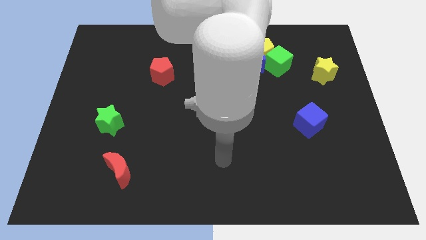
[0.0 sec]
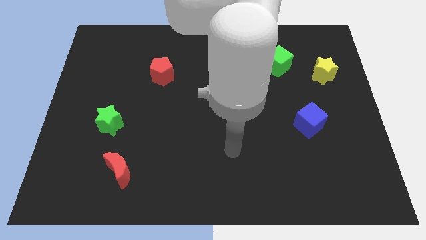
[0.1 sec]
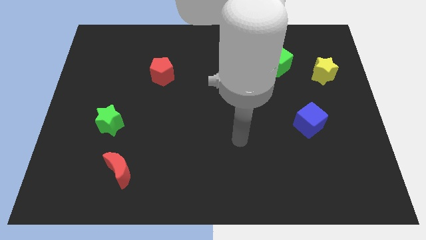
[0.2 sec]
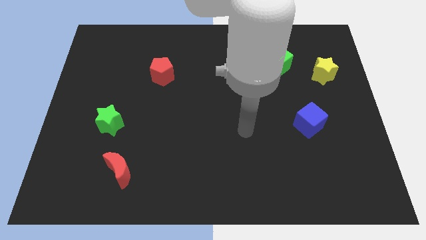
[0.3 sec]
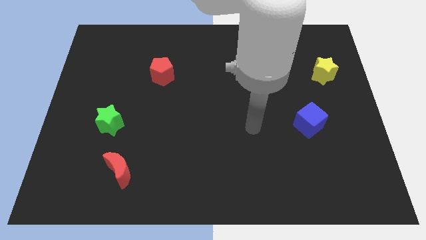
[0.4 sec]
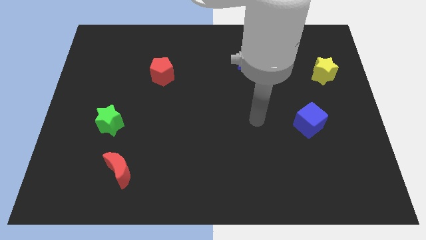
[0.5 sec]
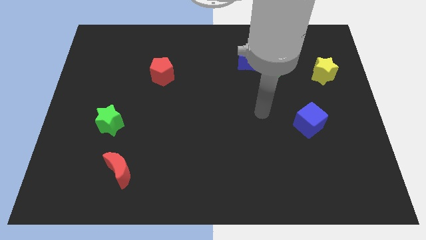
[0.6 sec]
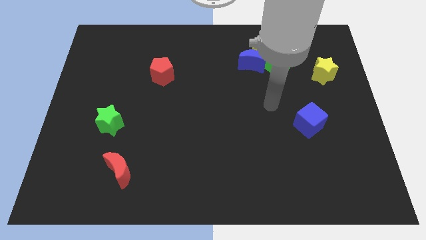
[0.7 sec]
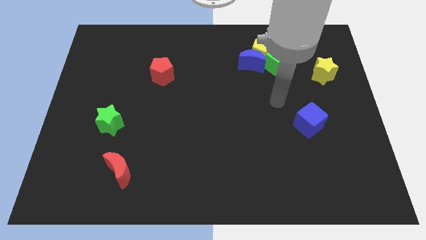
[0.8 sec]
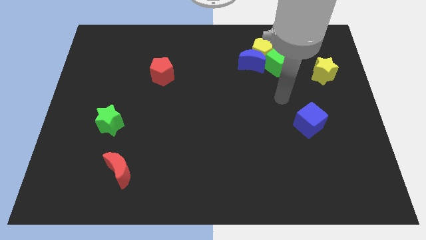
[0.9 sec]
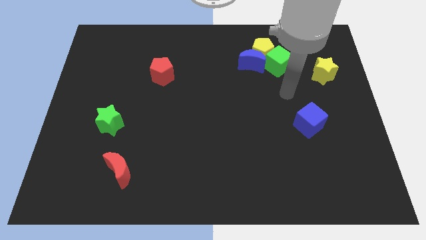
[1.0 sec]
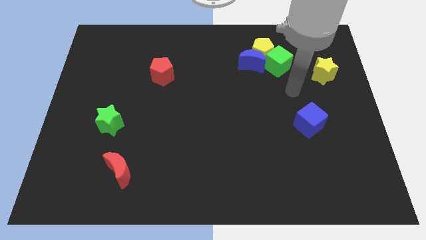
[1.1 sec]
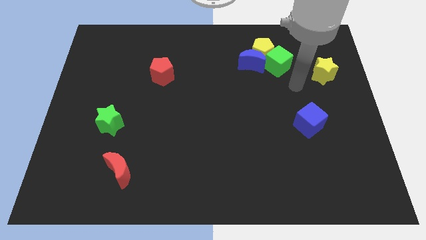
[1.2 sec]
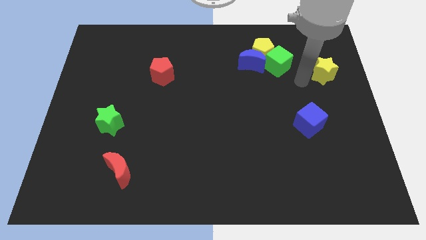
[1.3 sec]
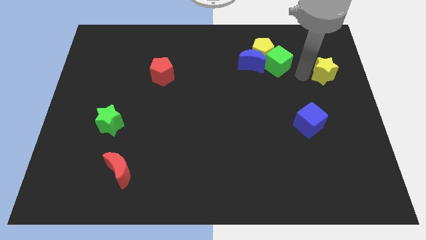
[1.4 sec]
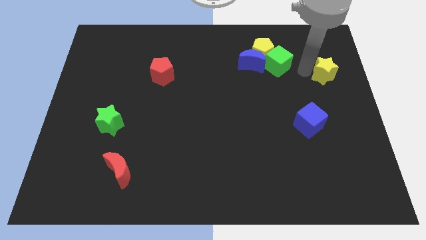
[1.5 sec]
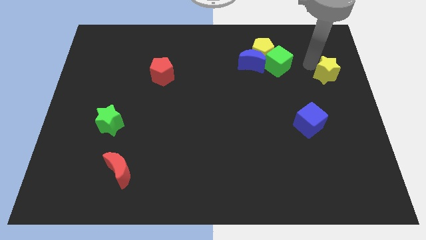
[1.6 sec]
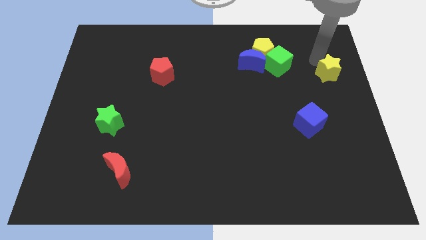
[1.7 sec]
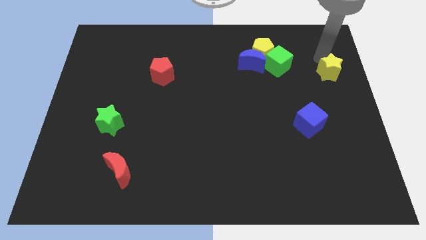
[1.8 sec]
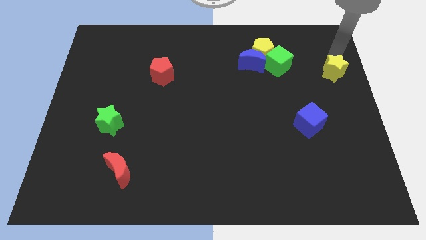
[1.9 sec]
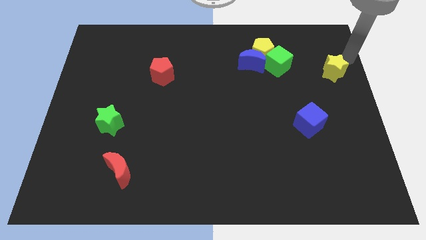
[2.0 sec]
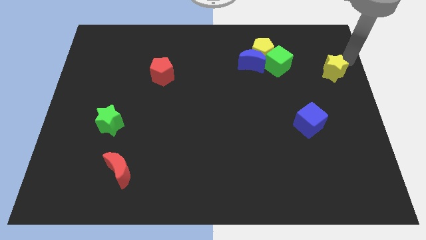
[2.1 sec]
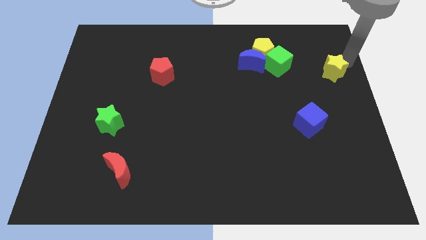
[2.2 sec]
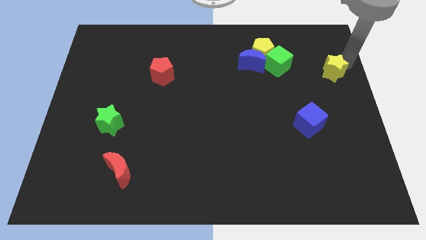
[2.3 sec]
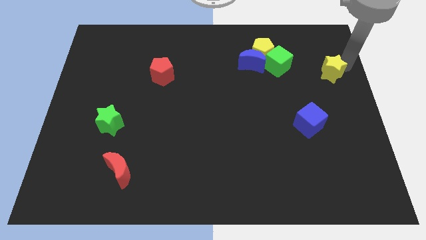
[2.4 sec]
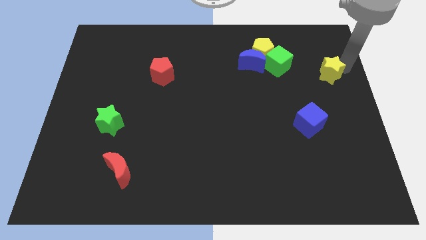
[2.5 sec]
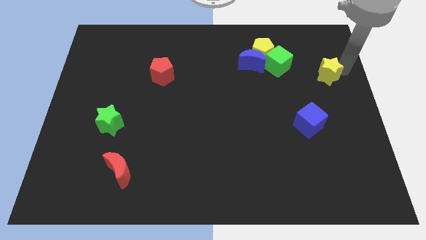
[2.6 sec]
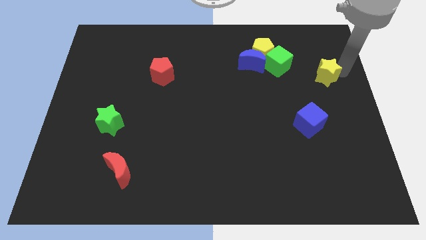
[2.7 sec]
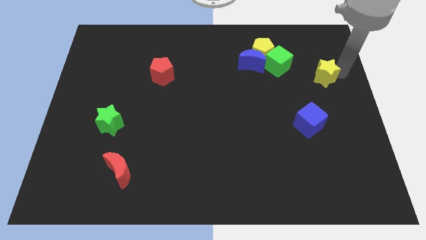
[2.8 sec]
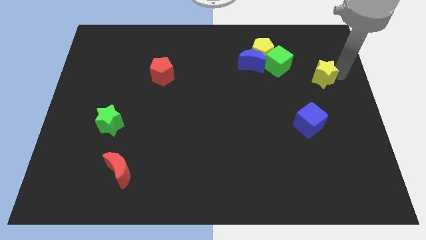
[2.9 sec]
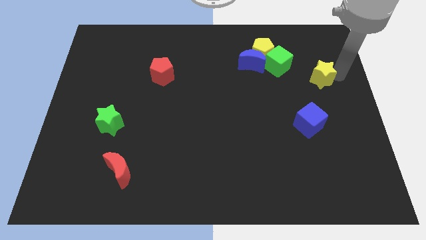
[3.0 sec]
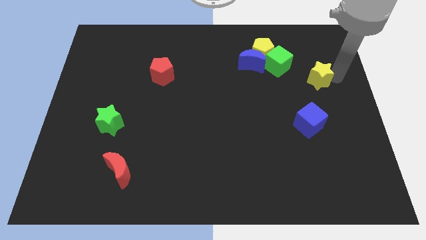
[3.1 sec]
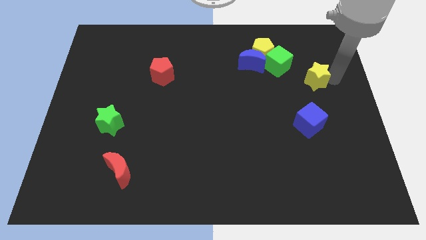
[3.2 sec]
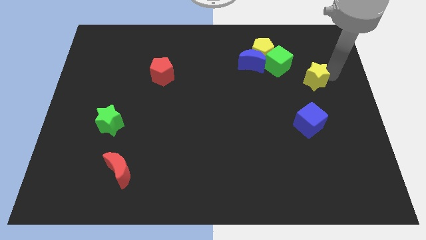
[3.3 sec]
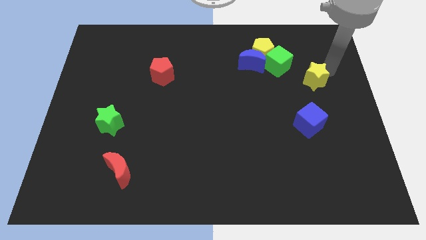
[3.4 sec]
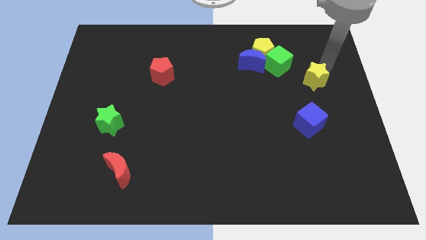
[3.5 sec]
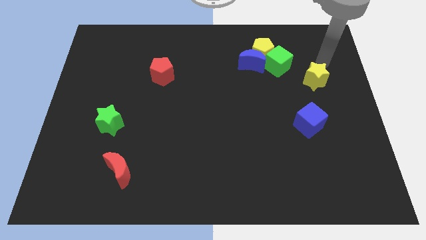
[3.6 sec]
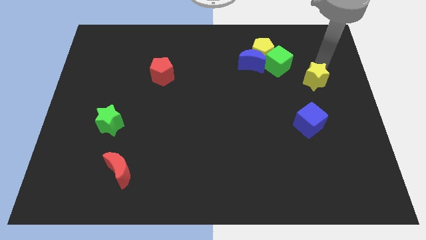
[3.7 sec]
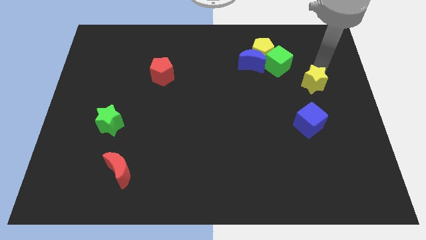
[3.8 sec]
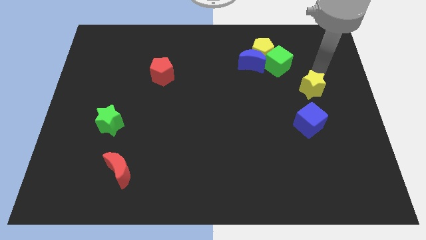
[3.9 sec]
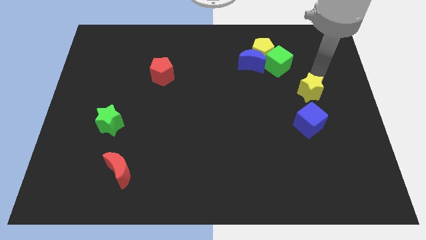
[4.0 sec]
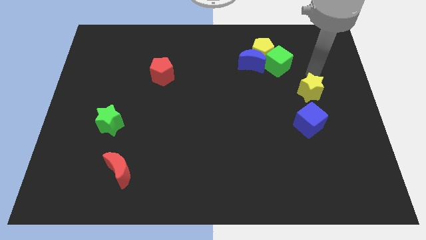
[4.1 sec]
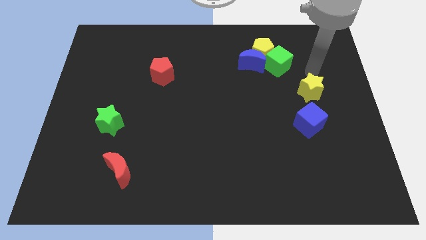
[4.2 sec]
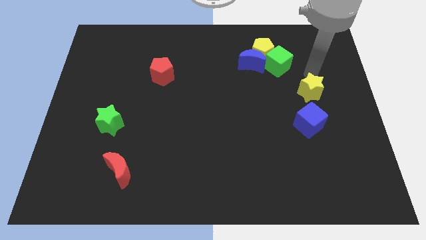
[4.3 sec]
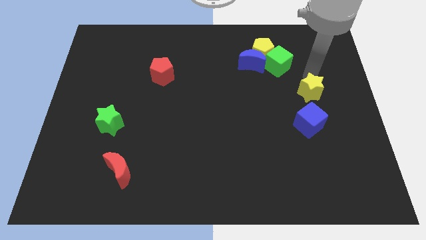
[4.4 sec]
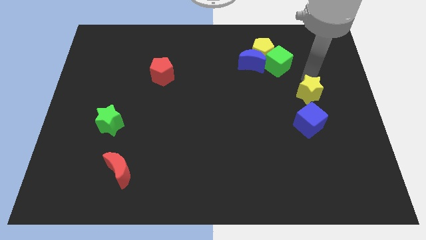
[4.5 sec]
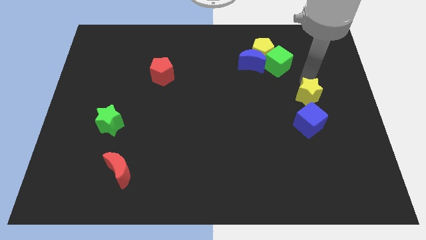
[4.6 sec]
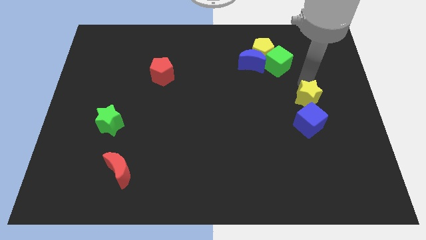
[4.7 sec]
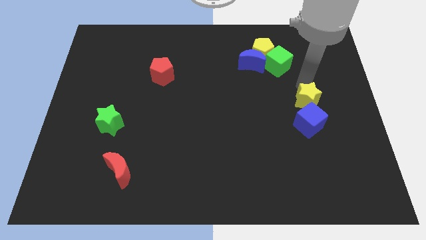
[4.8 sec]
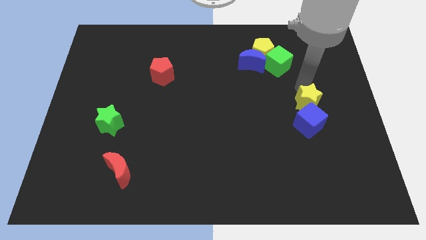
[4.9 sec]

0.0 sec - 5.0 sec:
move the yellow star to the blue cube

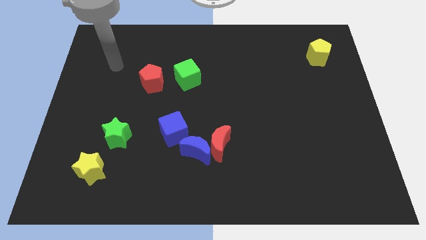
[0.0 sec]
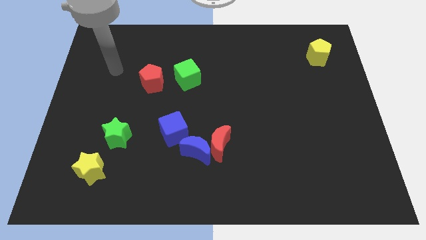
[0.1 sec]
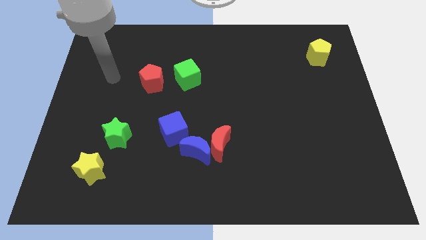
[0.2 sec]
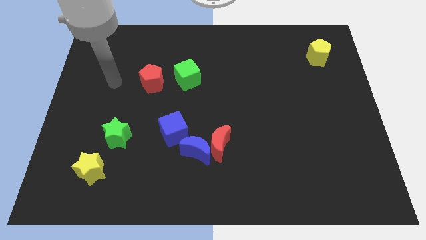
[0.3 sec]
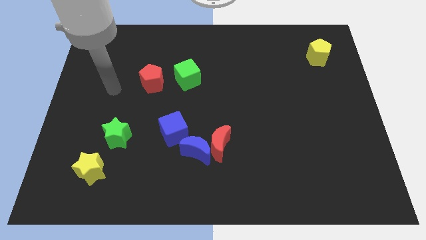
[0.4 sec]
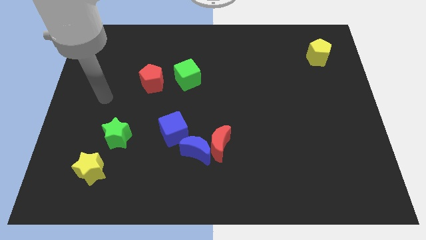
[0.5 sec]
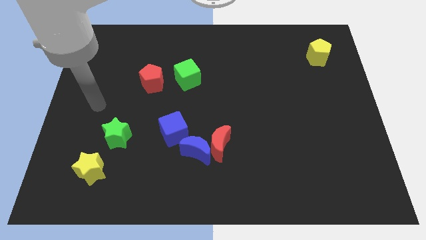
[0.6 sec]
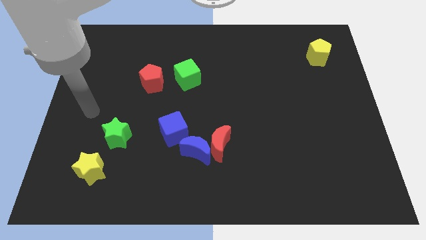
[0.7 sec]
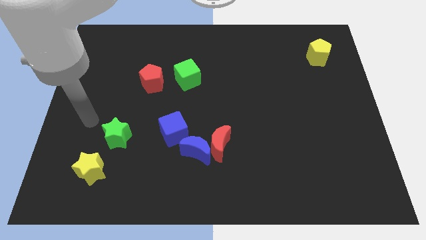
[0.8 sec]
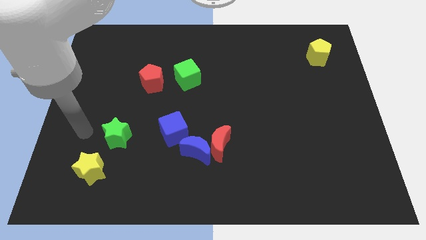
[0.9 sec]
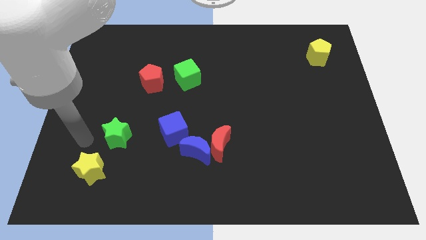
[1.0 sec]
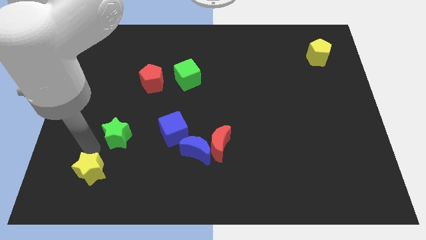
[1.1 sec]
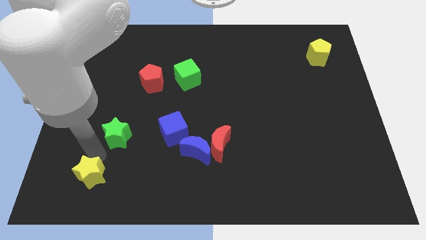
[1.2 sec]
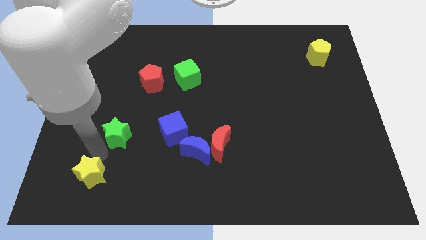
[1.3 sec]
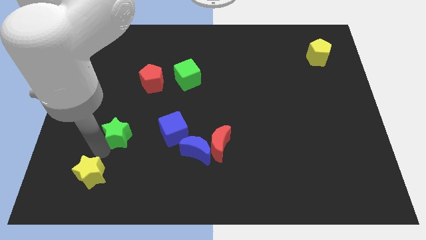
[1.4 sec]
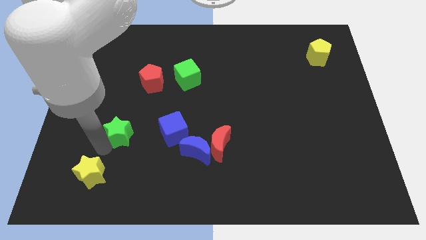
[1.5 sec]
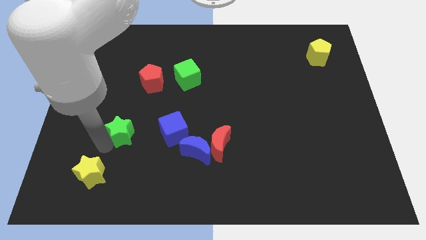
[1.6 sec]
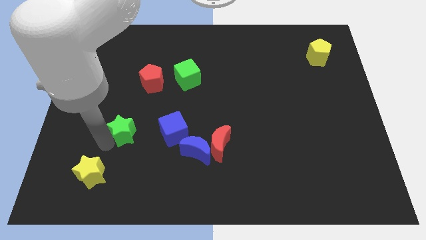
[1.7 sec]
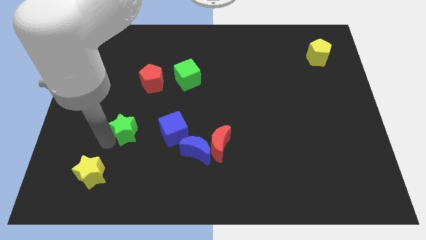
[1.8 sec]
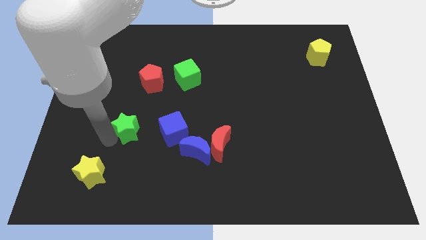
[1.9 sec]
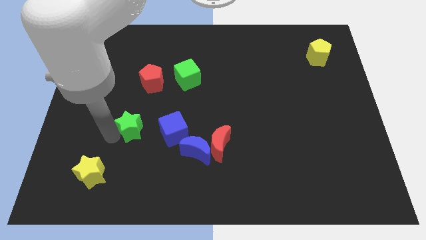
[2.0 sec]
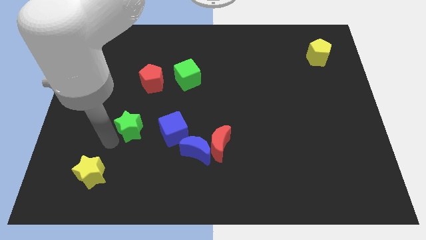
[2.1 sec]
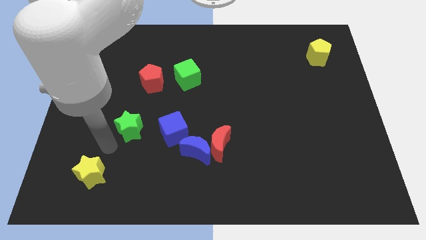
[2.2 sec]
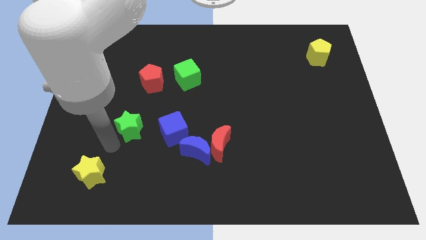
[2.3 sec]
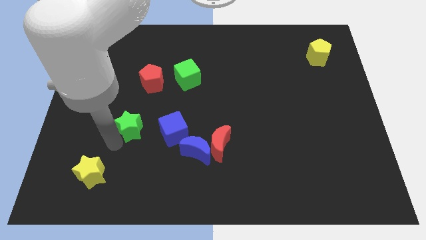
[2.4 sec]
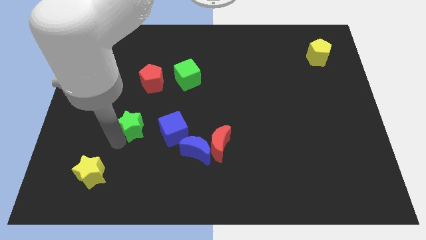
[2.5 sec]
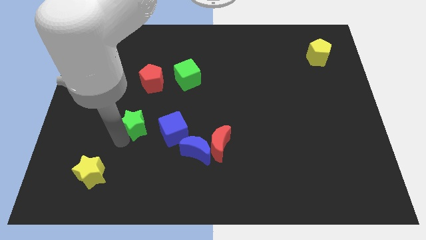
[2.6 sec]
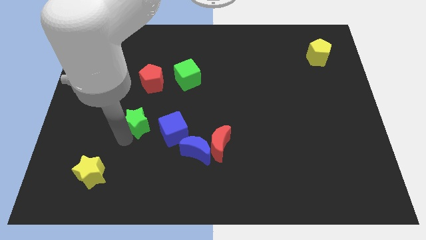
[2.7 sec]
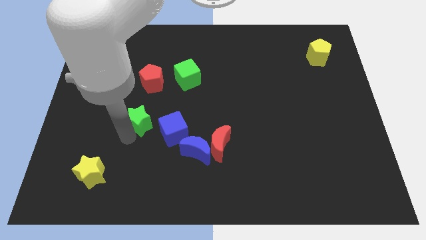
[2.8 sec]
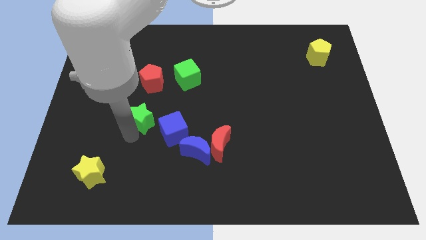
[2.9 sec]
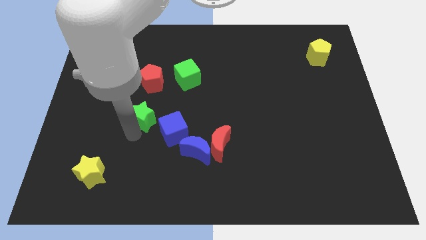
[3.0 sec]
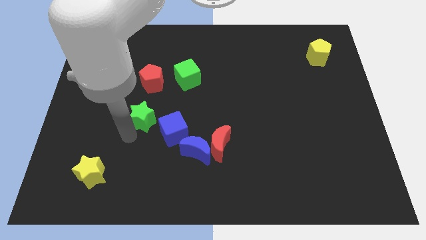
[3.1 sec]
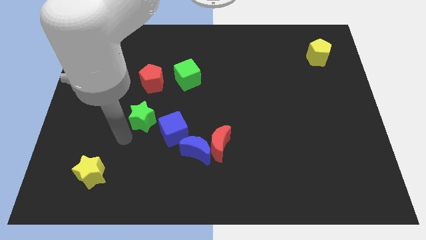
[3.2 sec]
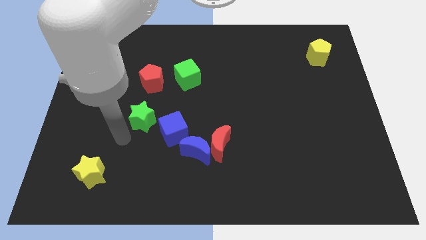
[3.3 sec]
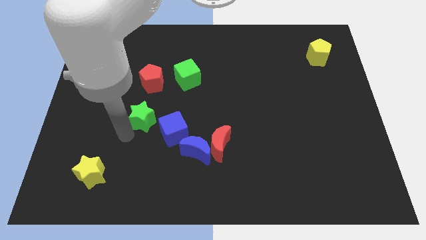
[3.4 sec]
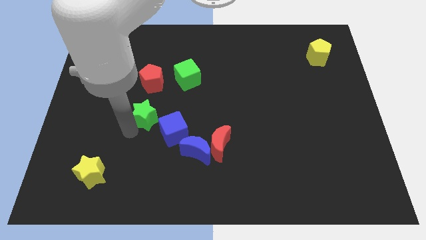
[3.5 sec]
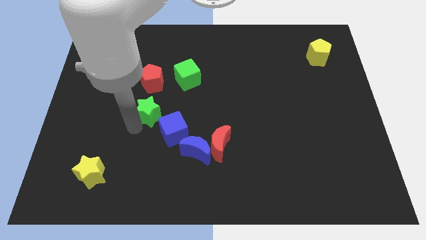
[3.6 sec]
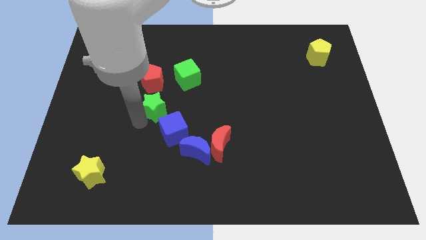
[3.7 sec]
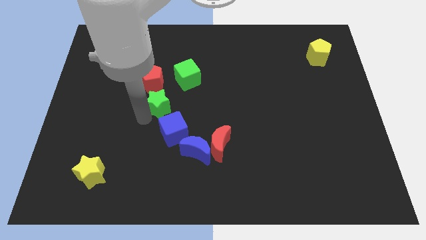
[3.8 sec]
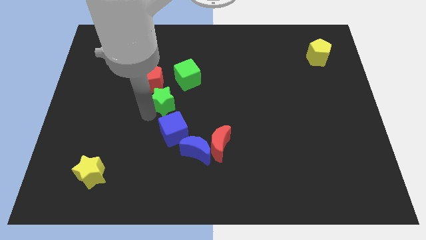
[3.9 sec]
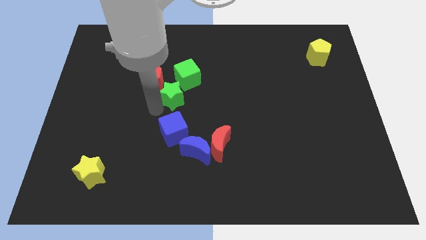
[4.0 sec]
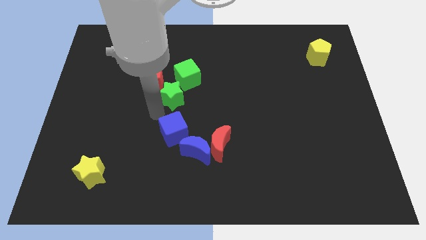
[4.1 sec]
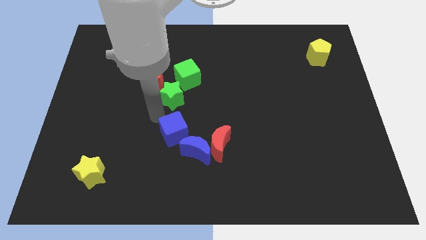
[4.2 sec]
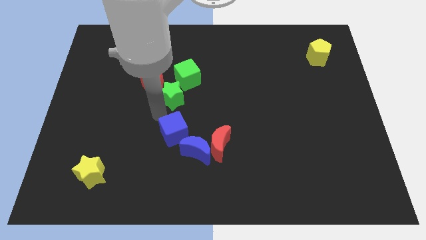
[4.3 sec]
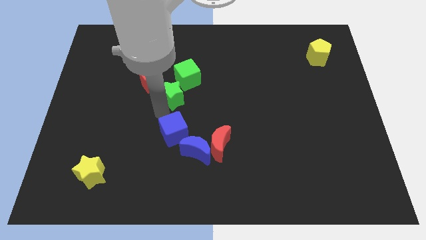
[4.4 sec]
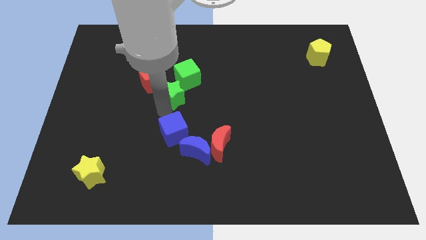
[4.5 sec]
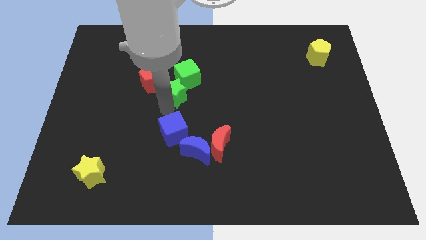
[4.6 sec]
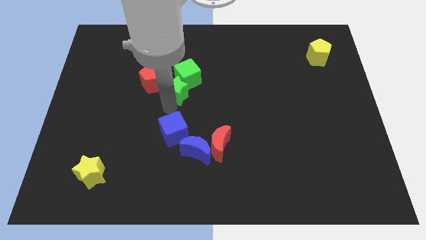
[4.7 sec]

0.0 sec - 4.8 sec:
push the green star towards the green cube
